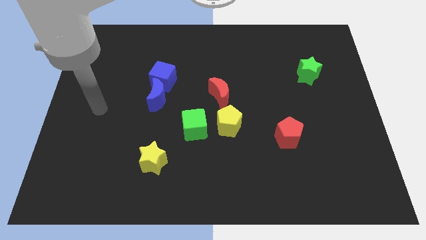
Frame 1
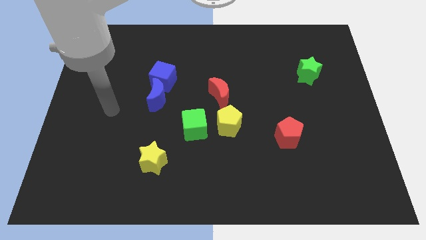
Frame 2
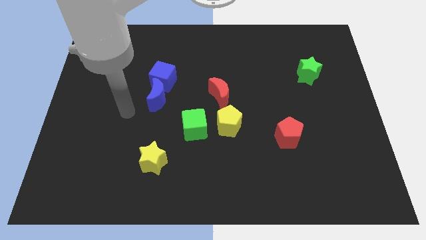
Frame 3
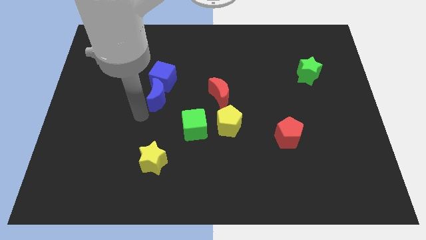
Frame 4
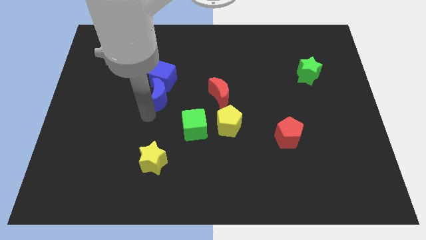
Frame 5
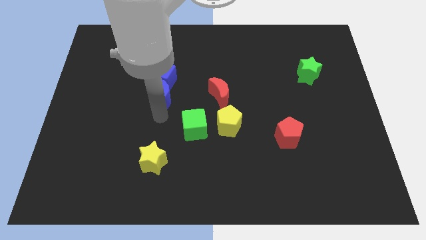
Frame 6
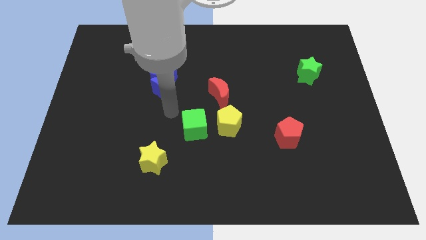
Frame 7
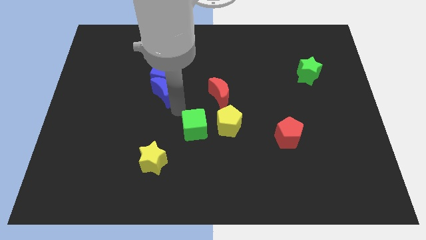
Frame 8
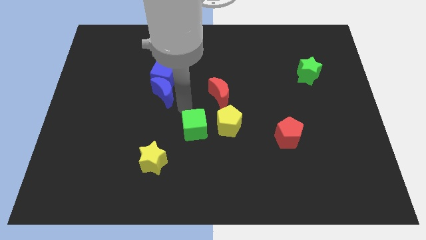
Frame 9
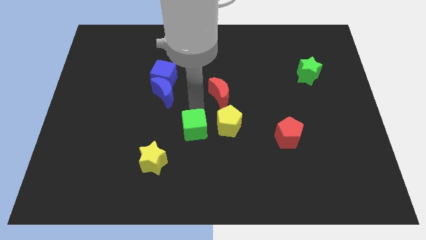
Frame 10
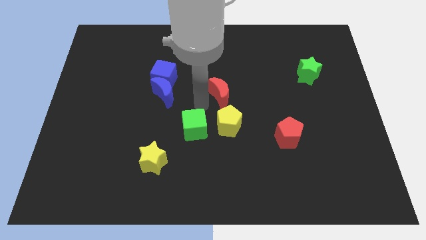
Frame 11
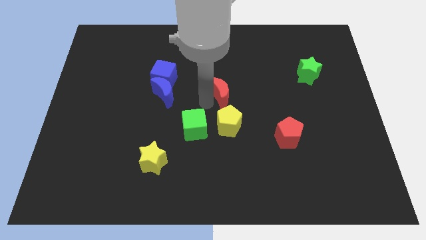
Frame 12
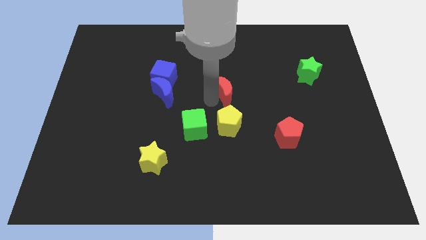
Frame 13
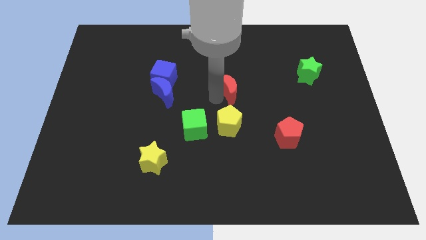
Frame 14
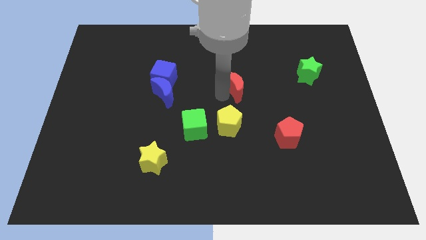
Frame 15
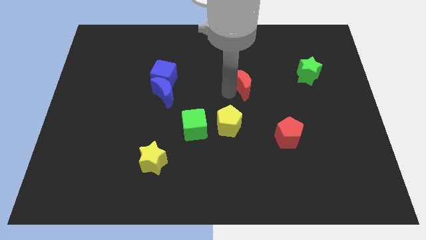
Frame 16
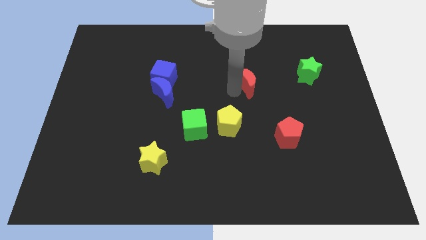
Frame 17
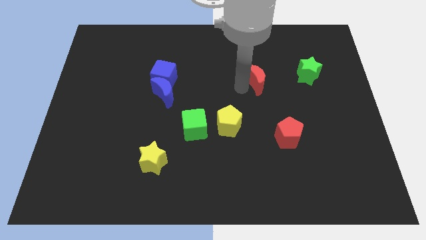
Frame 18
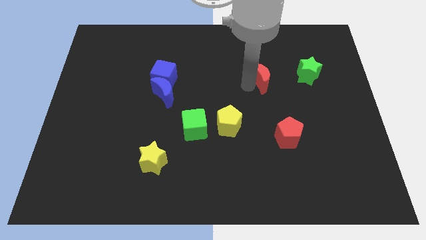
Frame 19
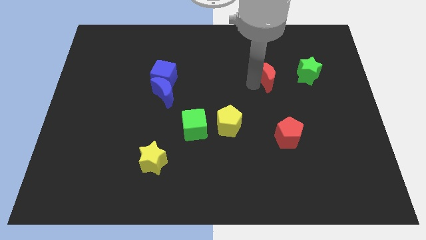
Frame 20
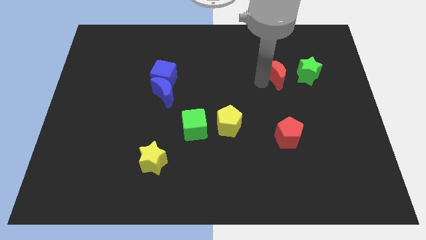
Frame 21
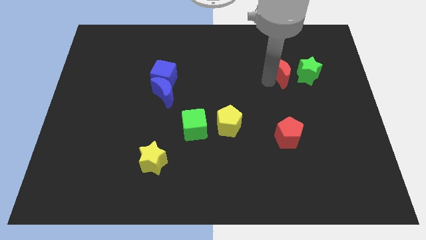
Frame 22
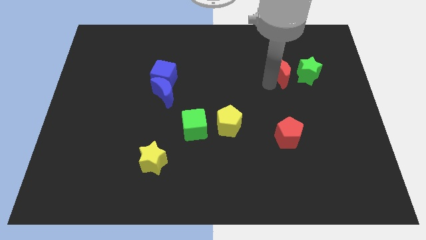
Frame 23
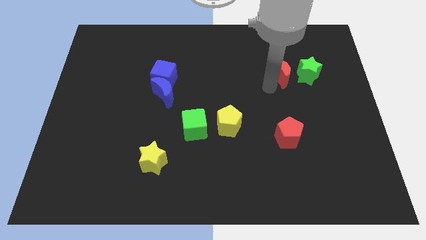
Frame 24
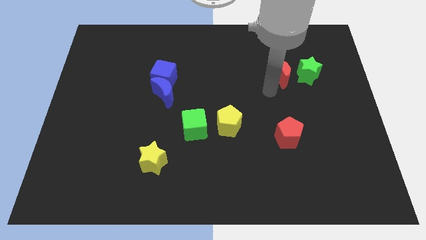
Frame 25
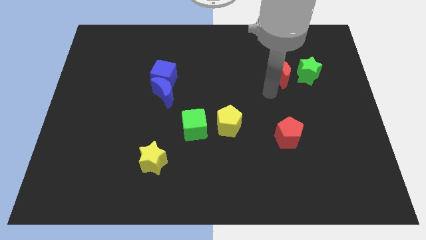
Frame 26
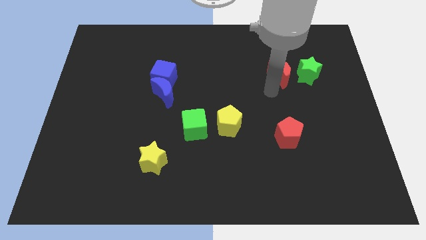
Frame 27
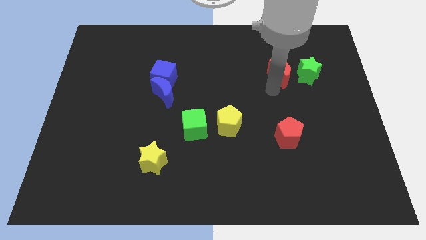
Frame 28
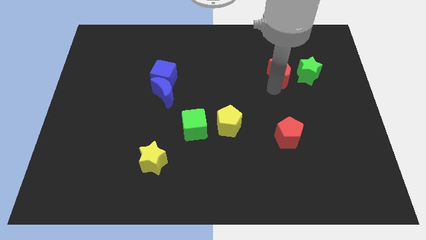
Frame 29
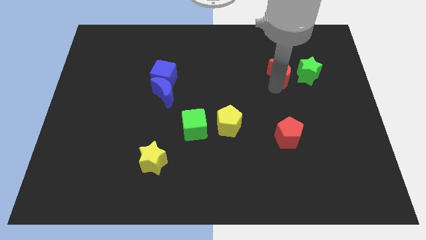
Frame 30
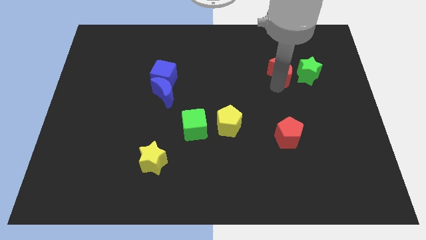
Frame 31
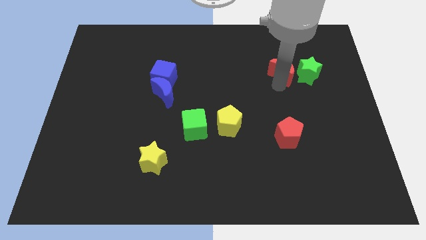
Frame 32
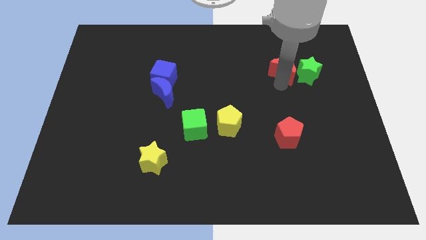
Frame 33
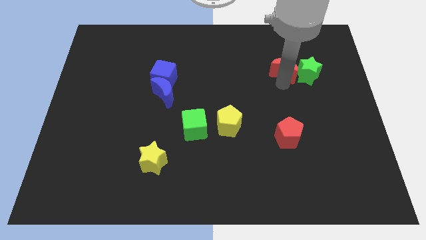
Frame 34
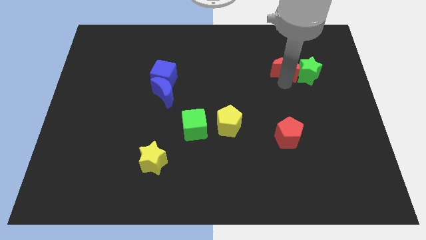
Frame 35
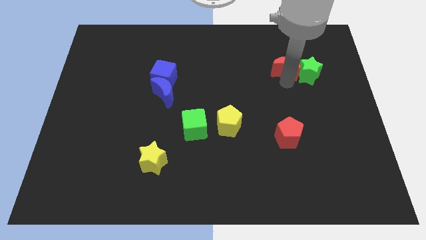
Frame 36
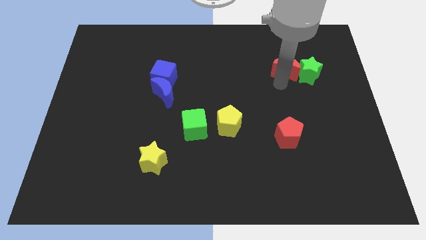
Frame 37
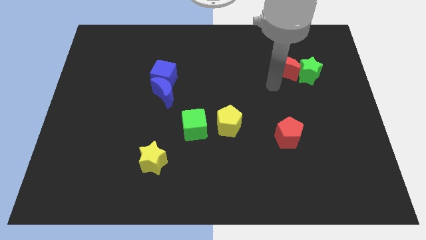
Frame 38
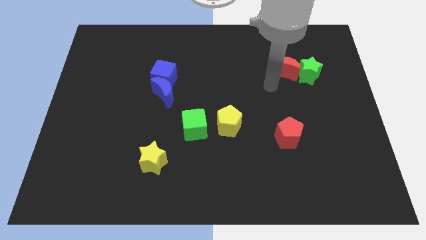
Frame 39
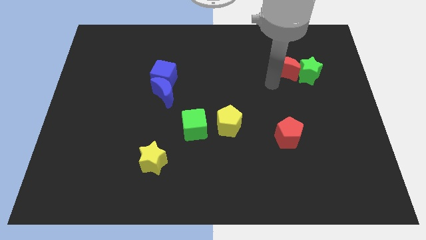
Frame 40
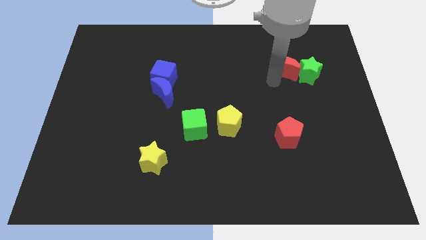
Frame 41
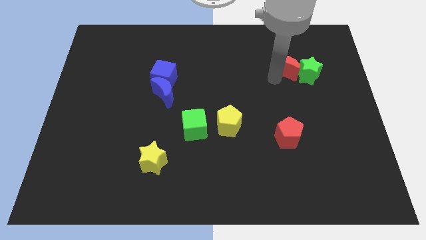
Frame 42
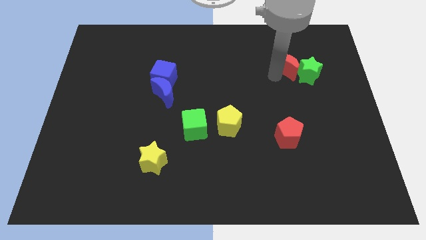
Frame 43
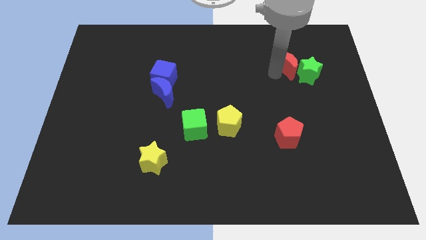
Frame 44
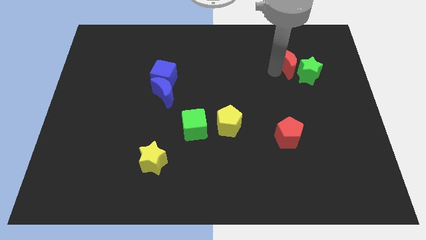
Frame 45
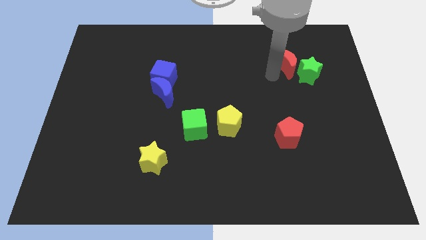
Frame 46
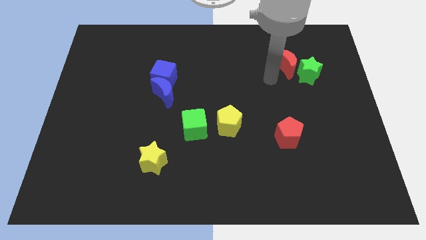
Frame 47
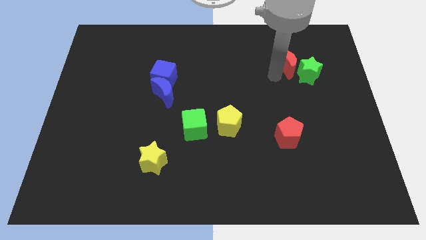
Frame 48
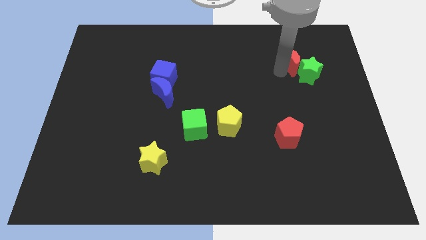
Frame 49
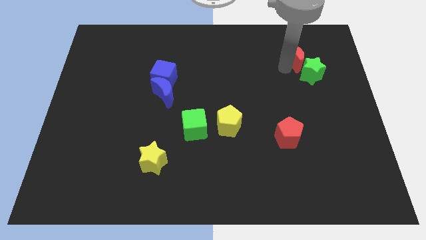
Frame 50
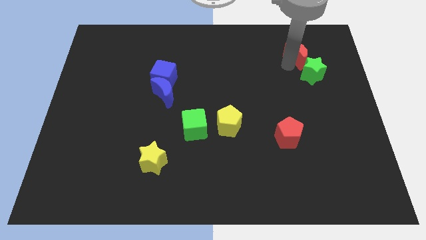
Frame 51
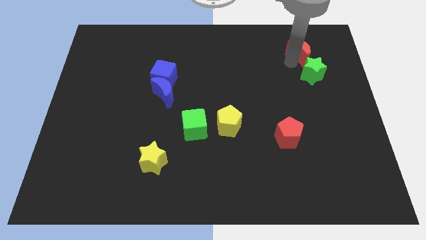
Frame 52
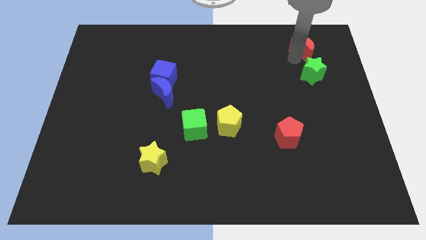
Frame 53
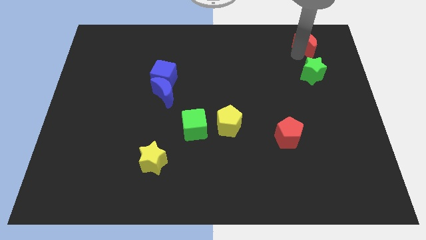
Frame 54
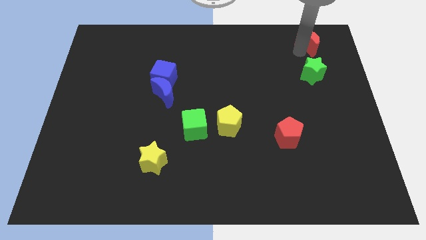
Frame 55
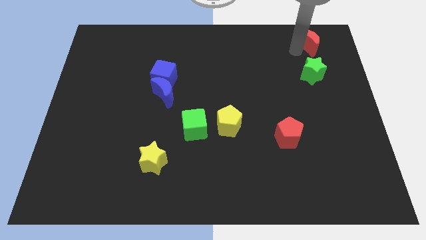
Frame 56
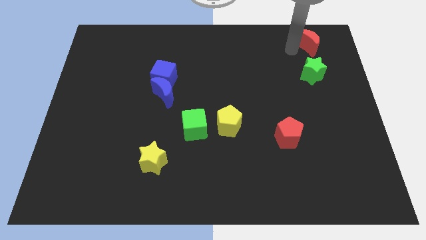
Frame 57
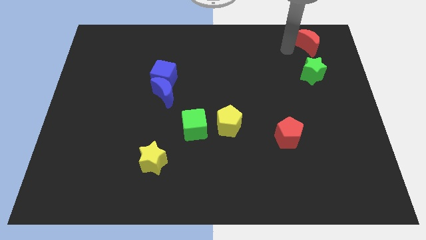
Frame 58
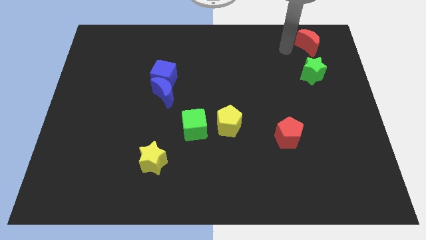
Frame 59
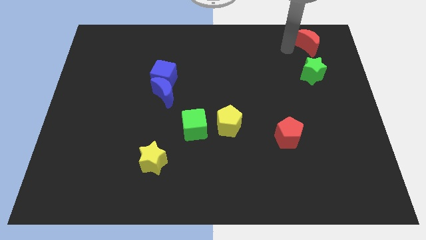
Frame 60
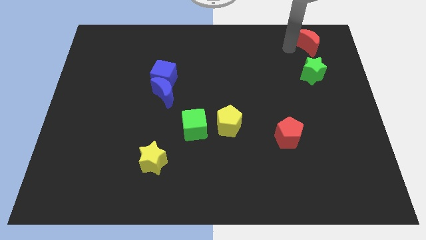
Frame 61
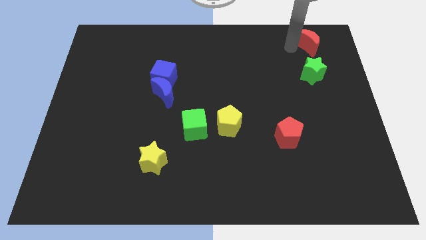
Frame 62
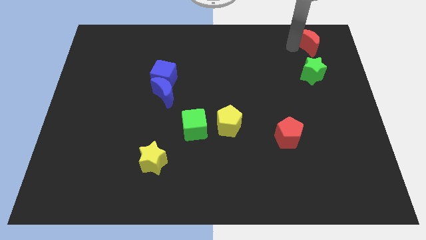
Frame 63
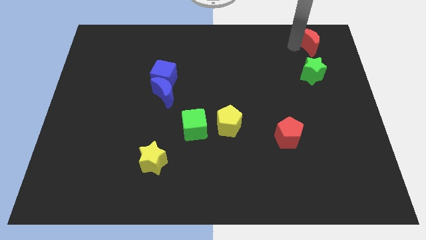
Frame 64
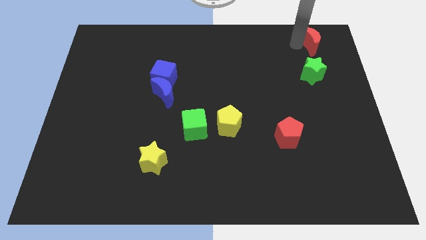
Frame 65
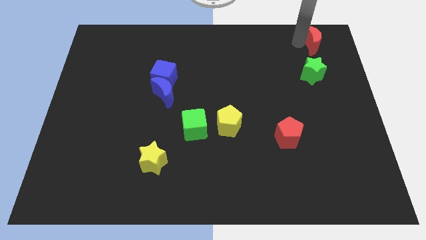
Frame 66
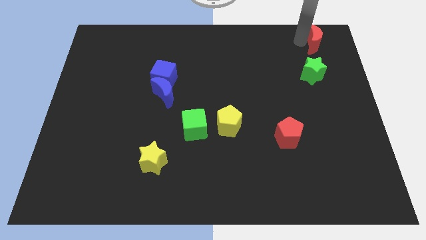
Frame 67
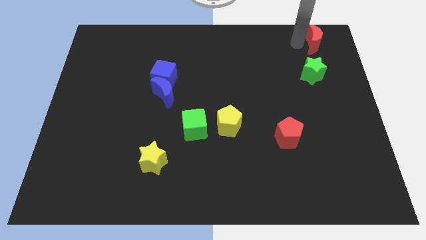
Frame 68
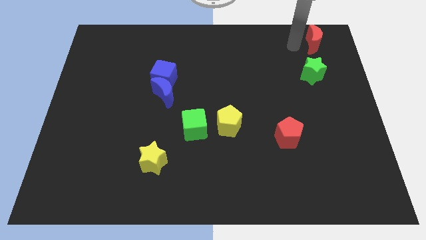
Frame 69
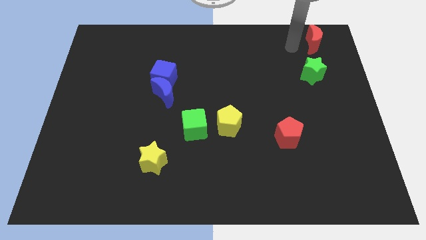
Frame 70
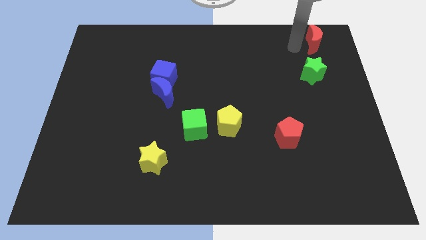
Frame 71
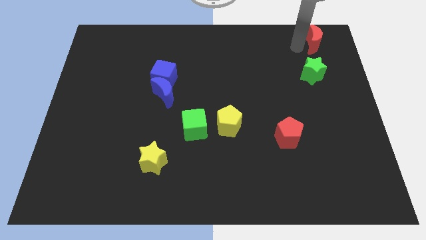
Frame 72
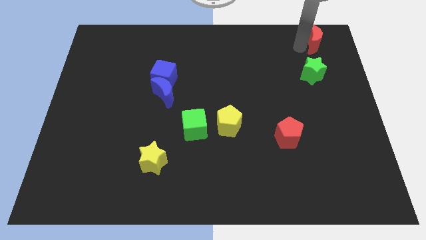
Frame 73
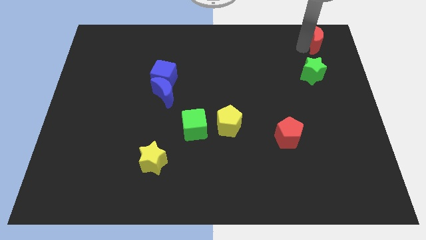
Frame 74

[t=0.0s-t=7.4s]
slide the red moon to the upper right corner
